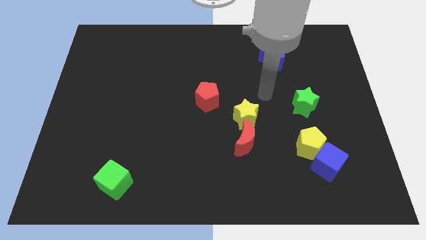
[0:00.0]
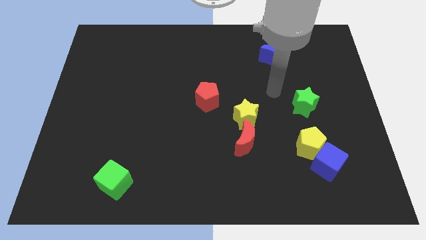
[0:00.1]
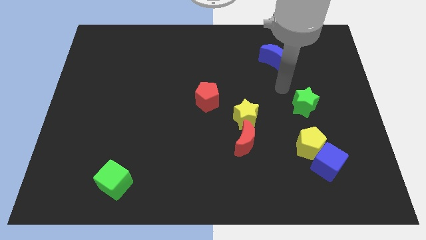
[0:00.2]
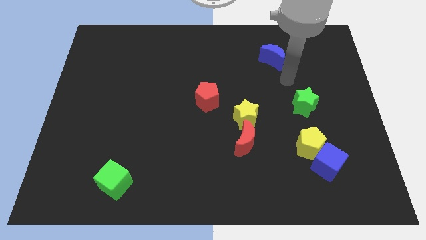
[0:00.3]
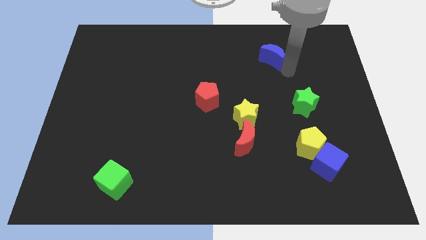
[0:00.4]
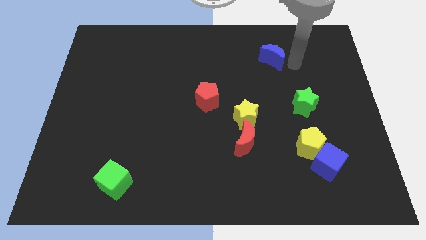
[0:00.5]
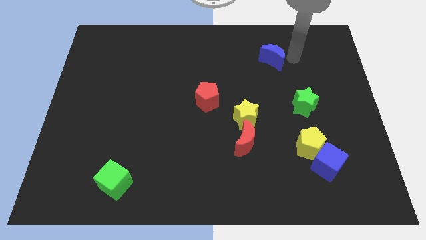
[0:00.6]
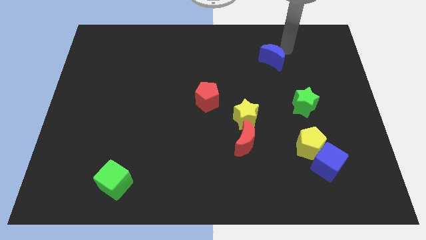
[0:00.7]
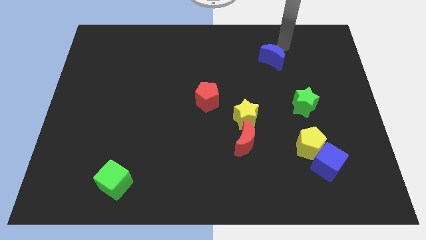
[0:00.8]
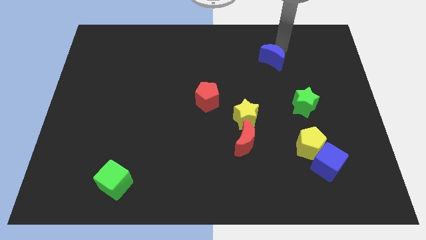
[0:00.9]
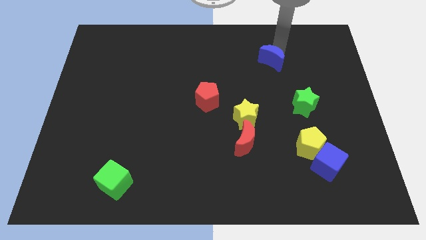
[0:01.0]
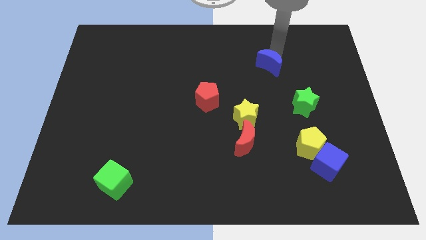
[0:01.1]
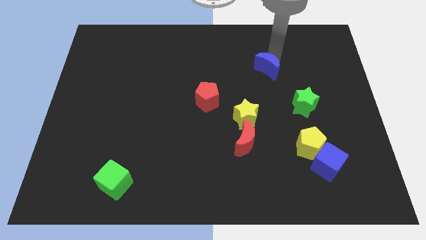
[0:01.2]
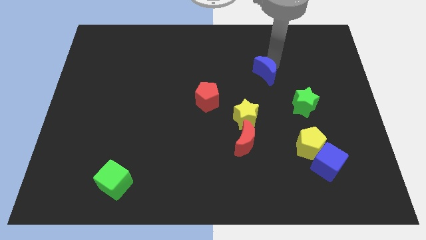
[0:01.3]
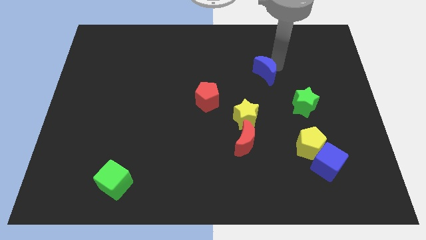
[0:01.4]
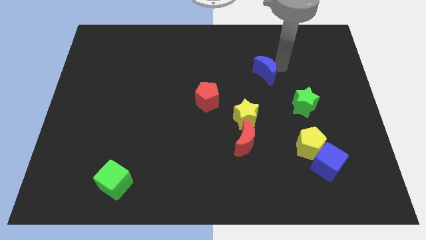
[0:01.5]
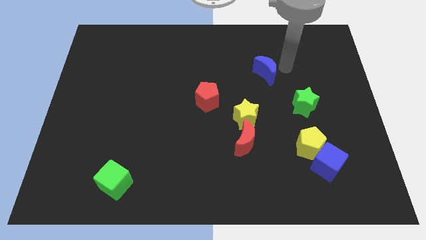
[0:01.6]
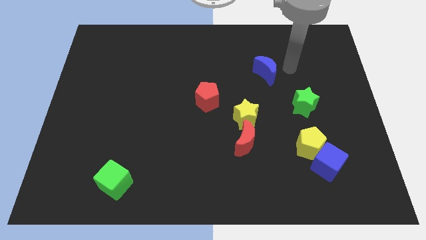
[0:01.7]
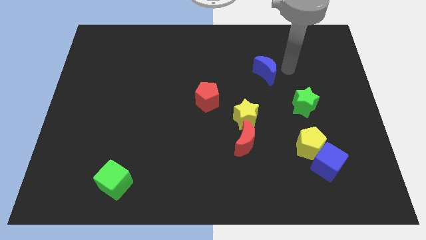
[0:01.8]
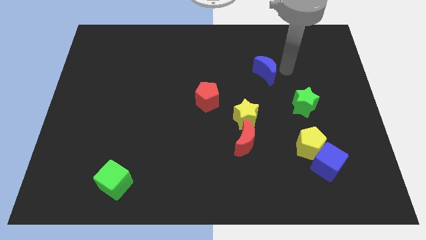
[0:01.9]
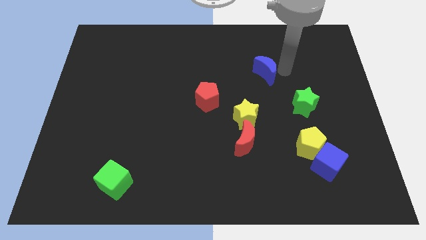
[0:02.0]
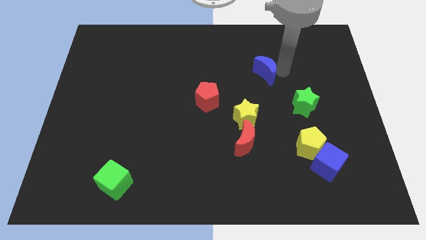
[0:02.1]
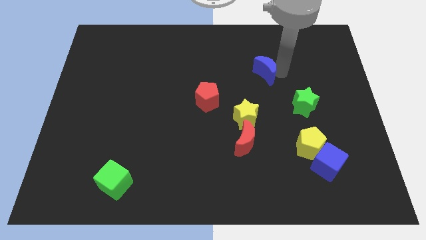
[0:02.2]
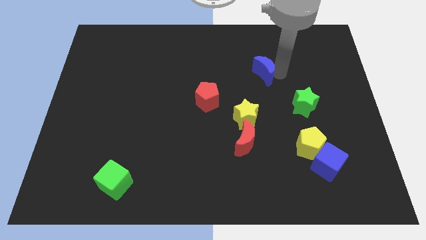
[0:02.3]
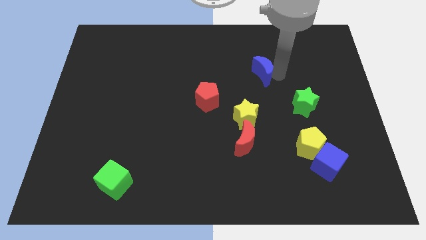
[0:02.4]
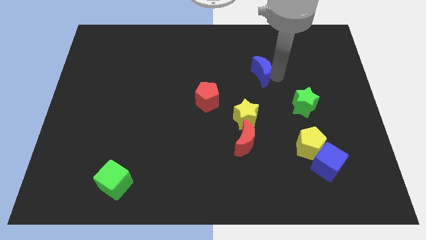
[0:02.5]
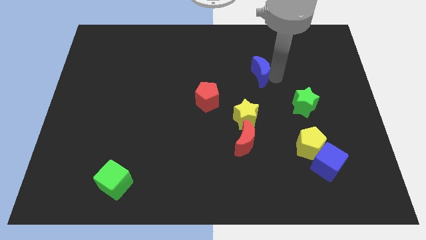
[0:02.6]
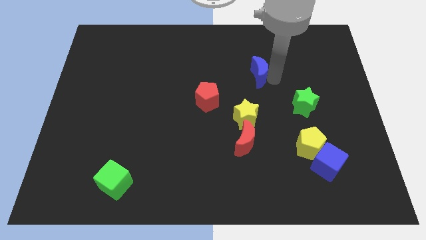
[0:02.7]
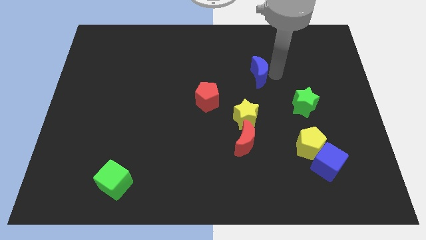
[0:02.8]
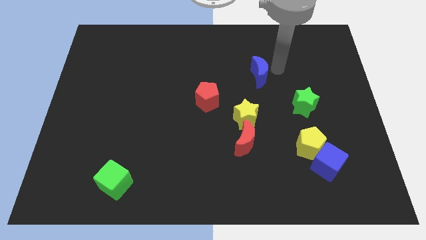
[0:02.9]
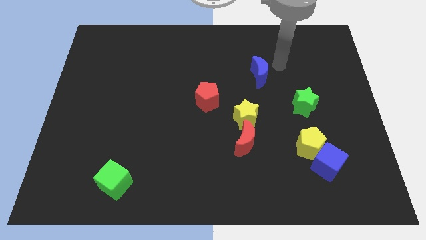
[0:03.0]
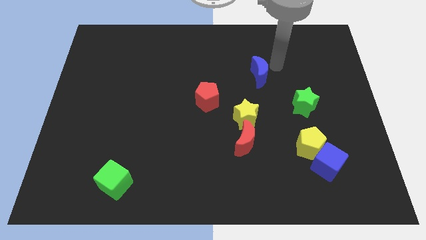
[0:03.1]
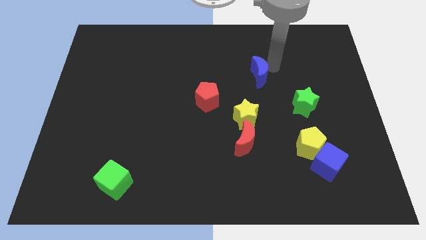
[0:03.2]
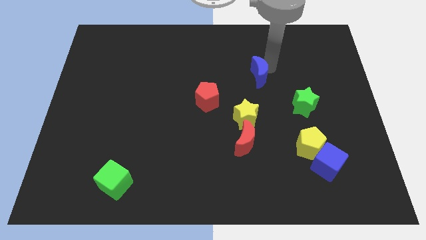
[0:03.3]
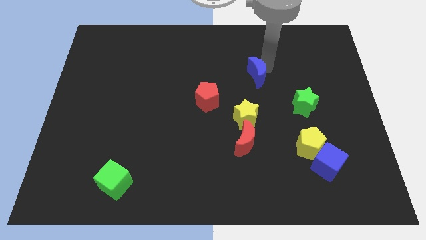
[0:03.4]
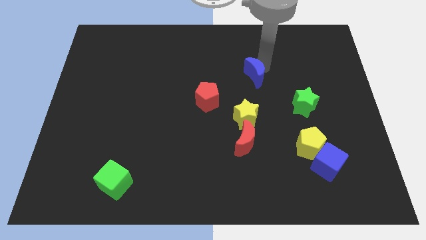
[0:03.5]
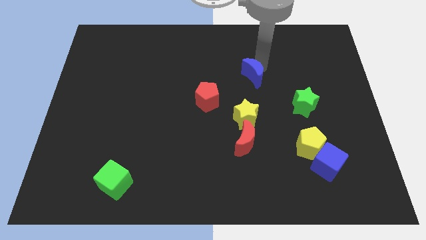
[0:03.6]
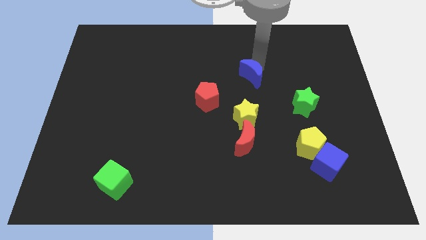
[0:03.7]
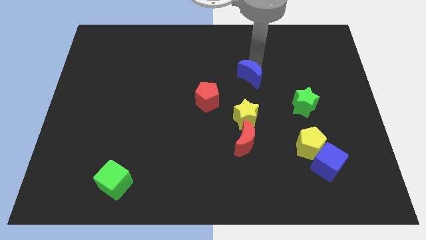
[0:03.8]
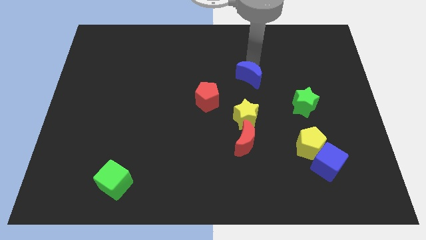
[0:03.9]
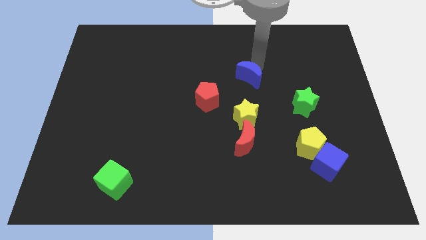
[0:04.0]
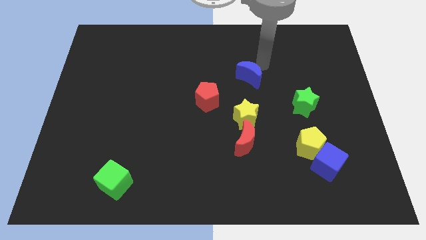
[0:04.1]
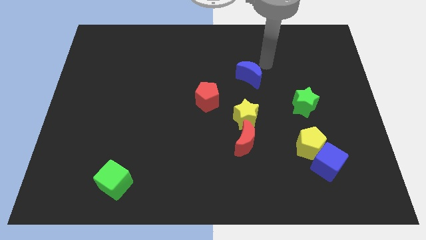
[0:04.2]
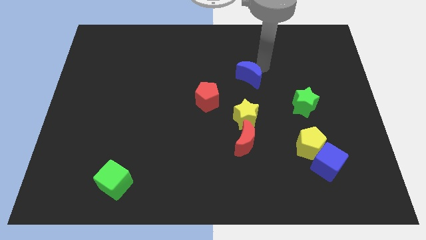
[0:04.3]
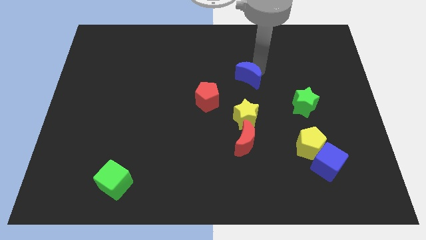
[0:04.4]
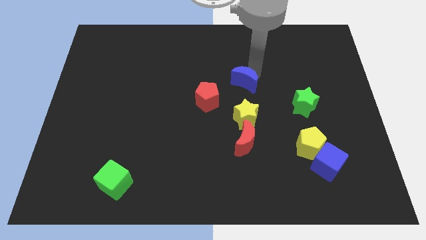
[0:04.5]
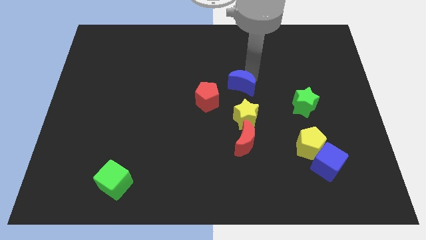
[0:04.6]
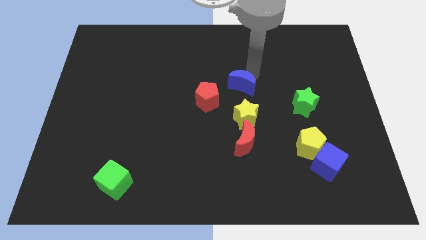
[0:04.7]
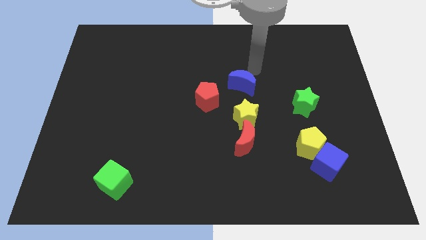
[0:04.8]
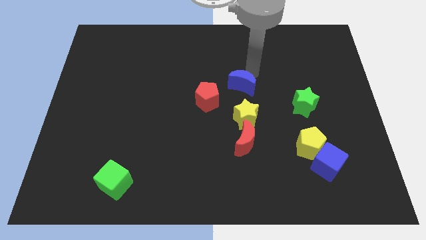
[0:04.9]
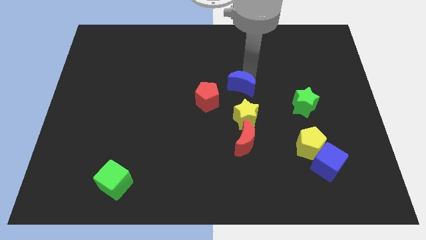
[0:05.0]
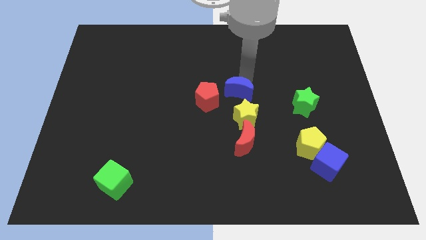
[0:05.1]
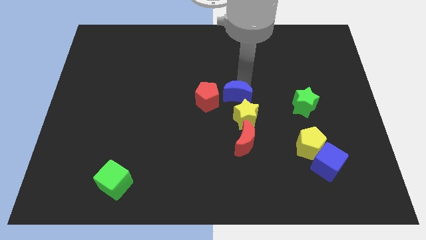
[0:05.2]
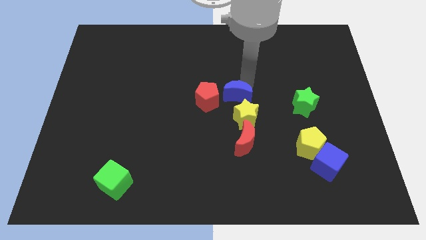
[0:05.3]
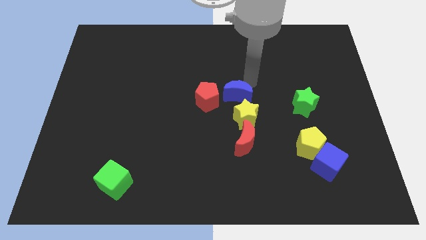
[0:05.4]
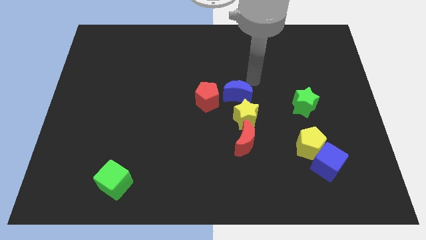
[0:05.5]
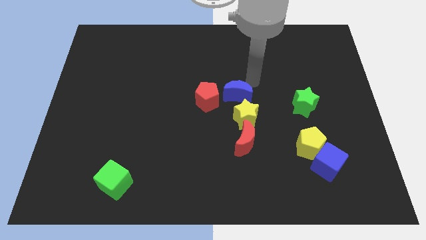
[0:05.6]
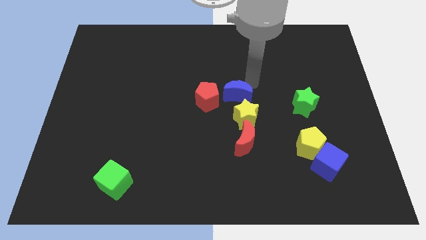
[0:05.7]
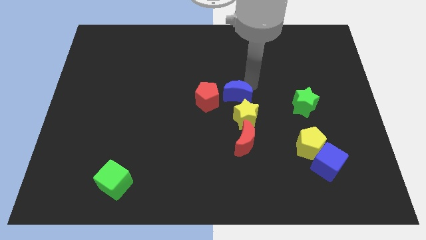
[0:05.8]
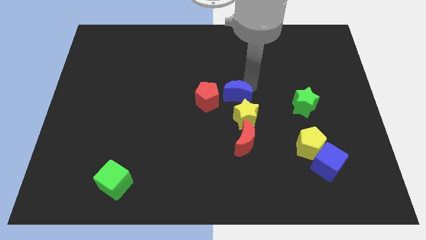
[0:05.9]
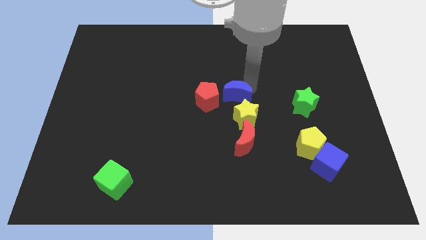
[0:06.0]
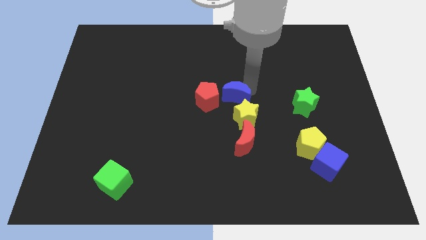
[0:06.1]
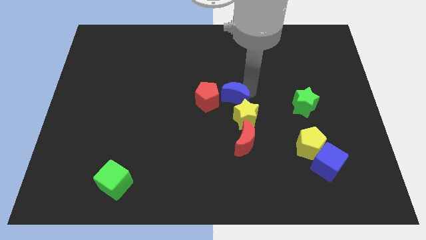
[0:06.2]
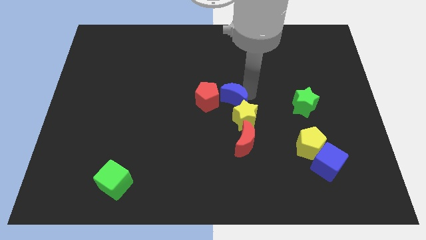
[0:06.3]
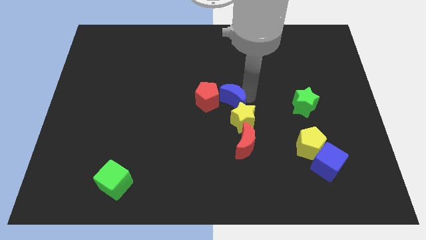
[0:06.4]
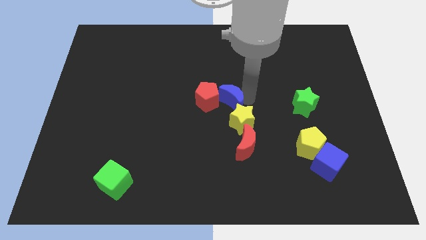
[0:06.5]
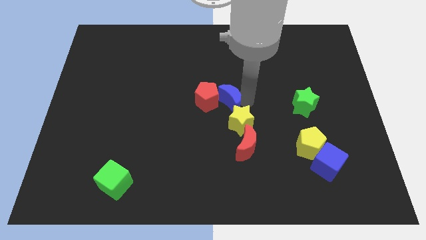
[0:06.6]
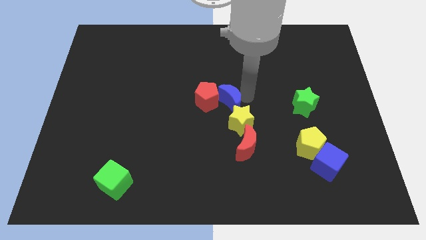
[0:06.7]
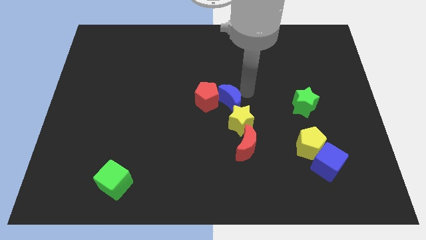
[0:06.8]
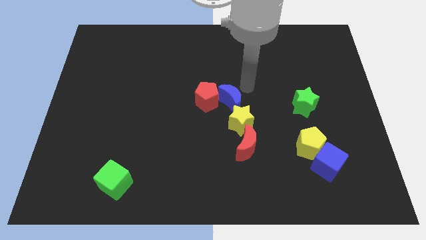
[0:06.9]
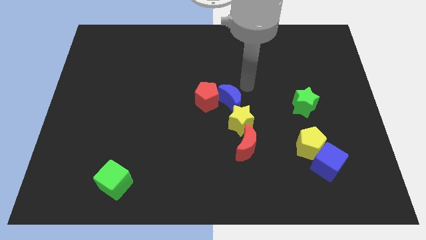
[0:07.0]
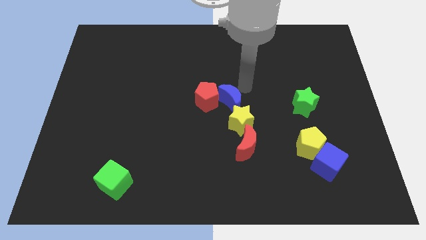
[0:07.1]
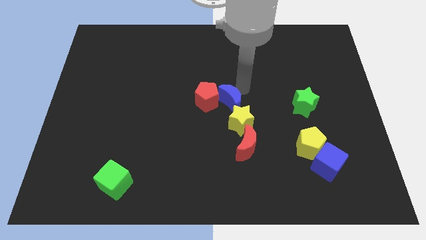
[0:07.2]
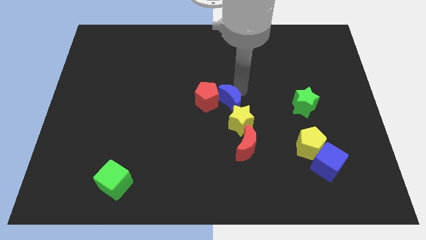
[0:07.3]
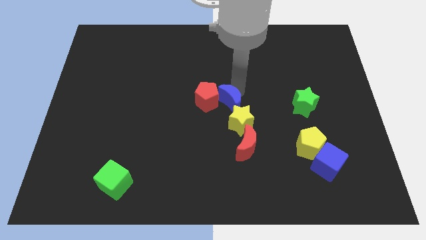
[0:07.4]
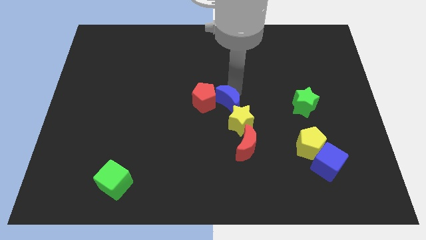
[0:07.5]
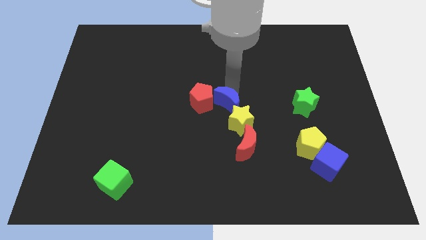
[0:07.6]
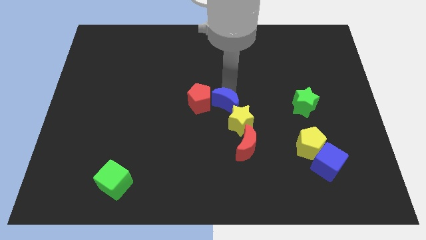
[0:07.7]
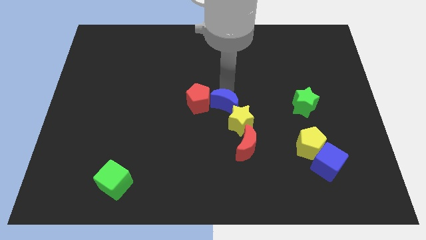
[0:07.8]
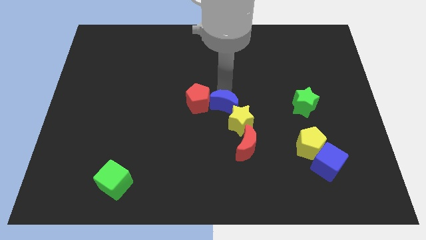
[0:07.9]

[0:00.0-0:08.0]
move the blue moon downwards and then left
